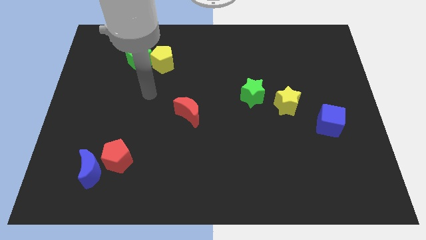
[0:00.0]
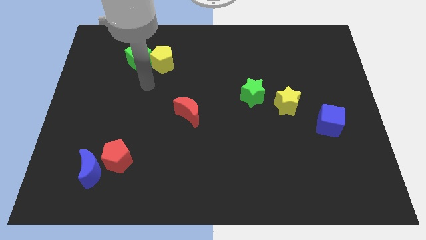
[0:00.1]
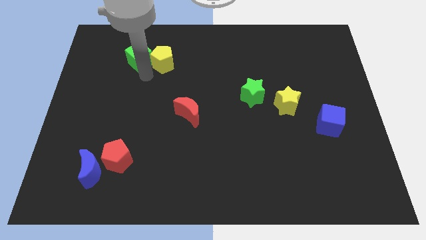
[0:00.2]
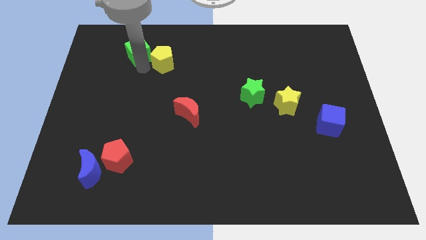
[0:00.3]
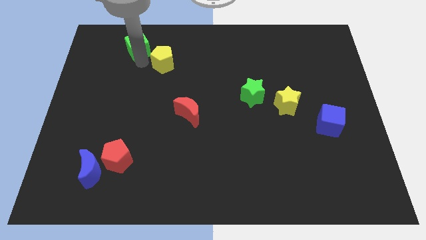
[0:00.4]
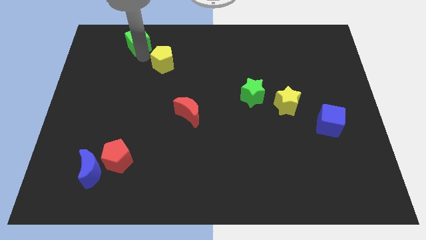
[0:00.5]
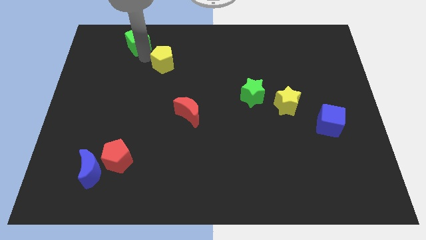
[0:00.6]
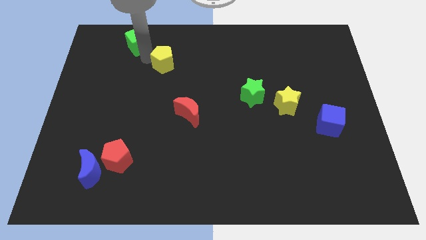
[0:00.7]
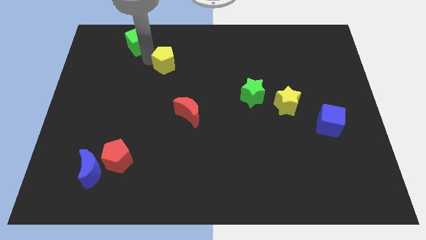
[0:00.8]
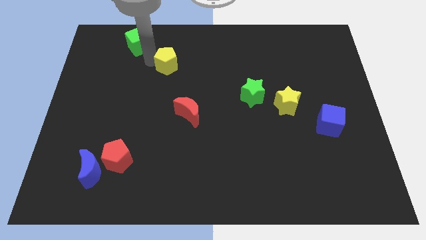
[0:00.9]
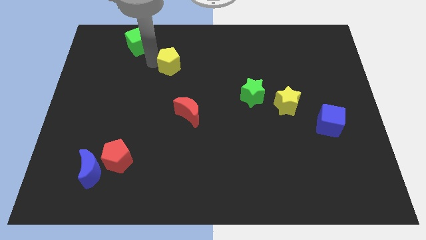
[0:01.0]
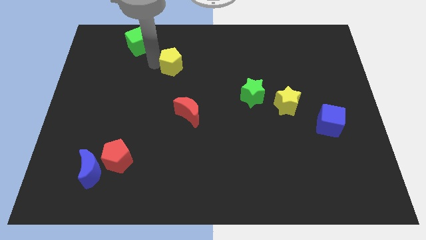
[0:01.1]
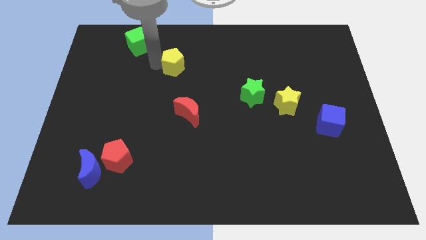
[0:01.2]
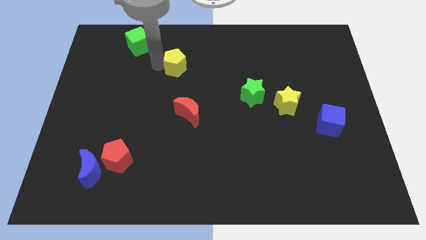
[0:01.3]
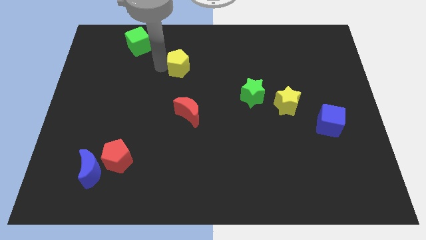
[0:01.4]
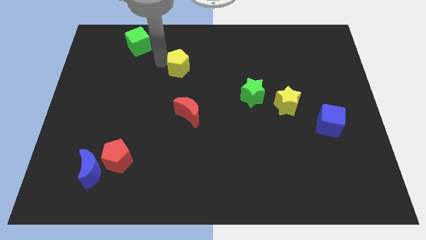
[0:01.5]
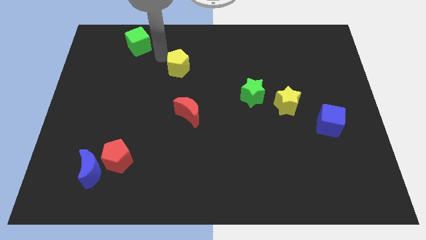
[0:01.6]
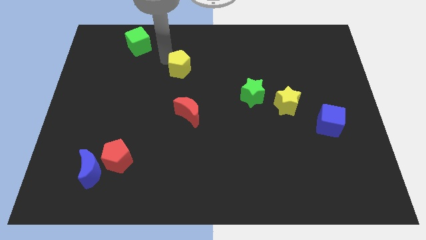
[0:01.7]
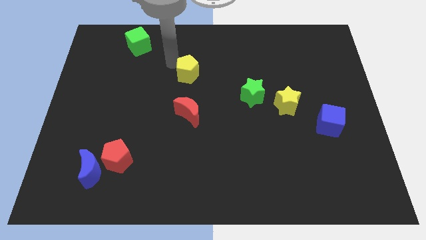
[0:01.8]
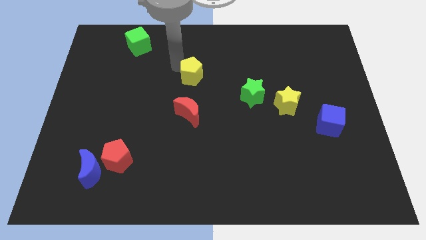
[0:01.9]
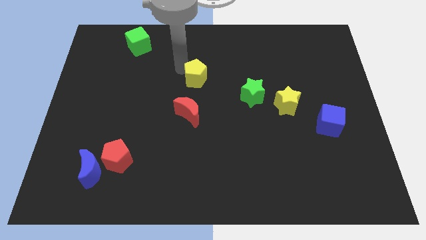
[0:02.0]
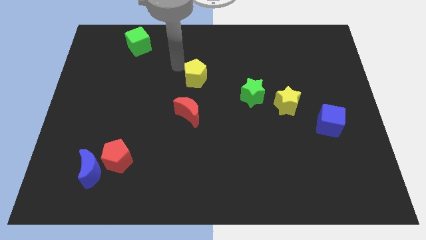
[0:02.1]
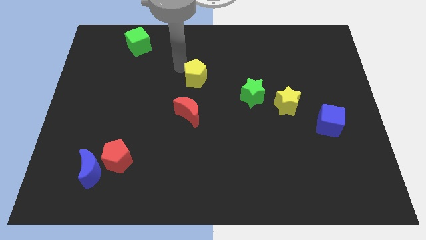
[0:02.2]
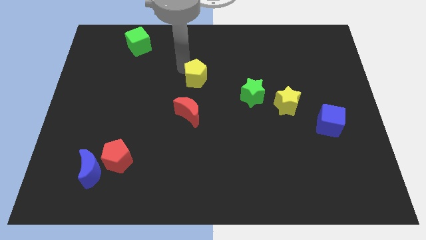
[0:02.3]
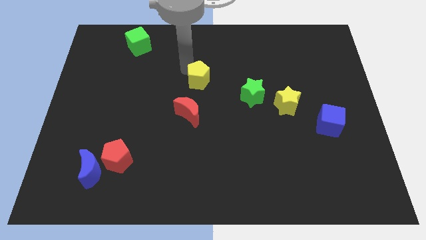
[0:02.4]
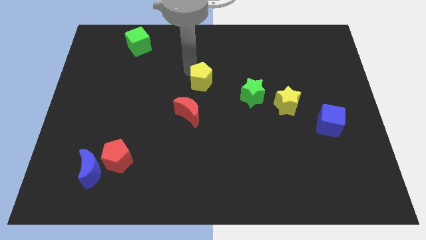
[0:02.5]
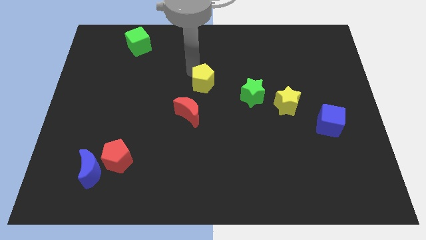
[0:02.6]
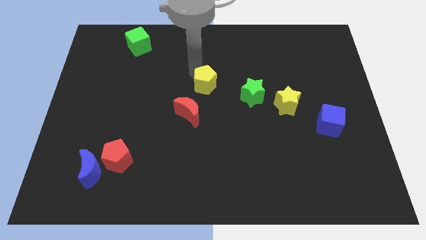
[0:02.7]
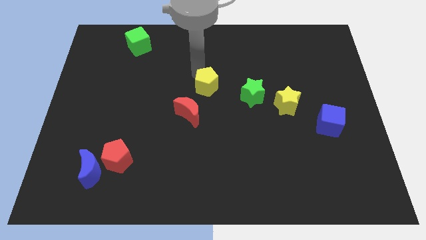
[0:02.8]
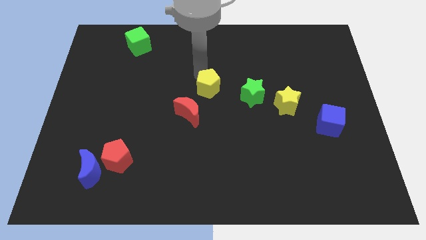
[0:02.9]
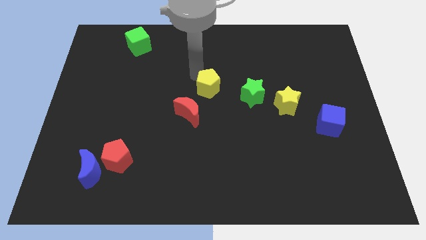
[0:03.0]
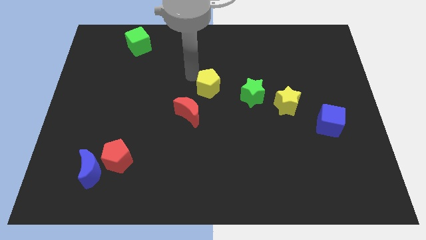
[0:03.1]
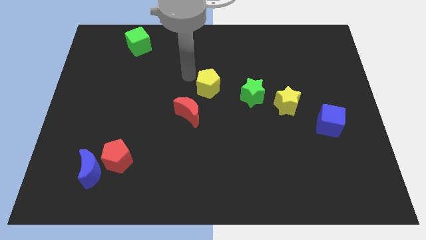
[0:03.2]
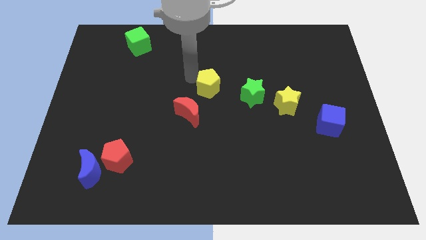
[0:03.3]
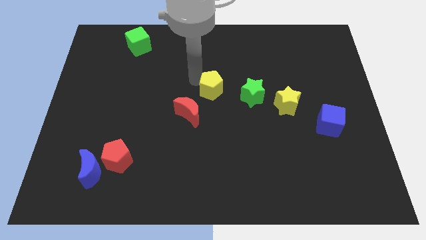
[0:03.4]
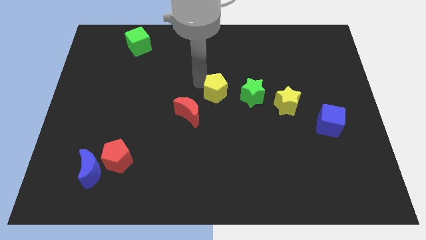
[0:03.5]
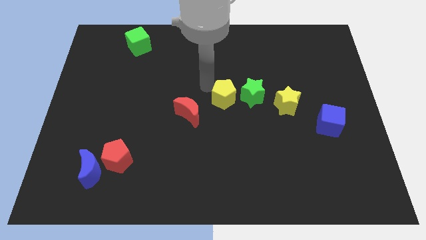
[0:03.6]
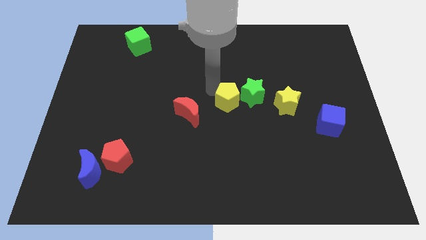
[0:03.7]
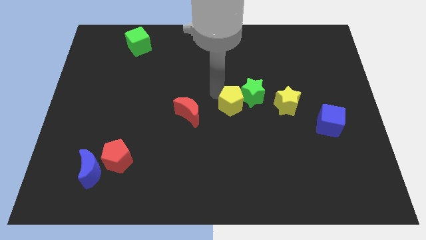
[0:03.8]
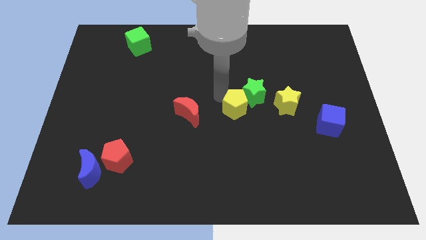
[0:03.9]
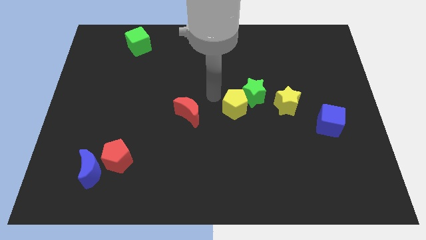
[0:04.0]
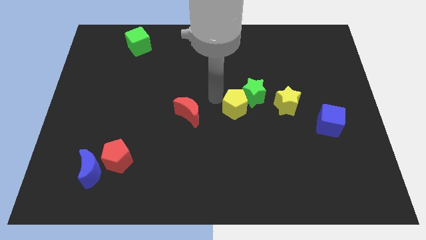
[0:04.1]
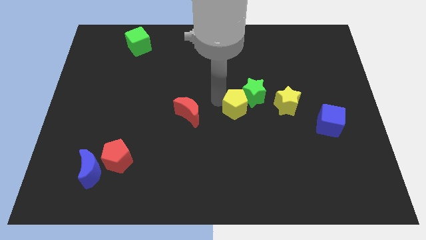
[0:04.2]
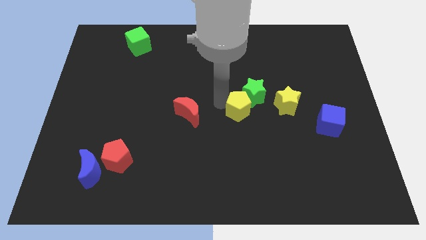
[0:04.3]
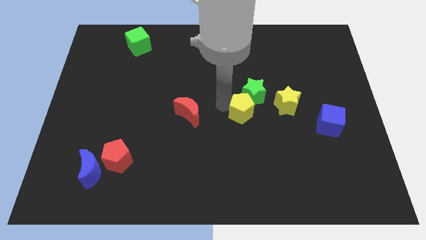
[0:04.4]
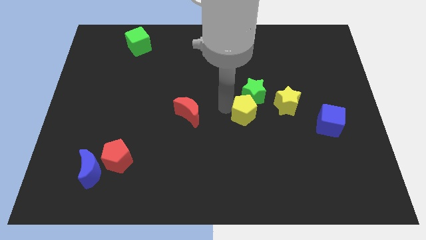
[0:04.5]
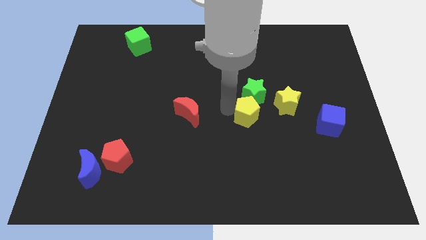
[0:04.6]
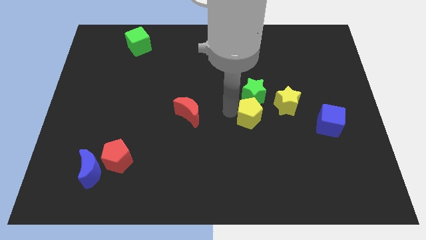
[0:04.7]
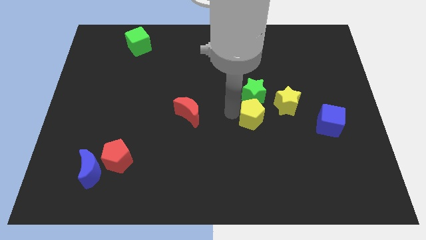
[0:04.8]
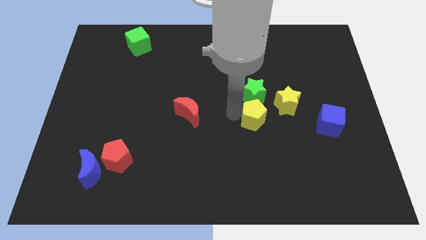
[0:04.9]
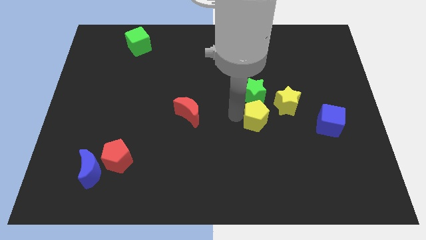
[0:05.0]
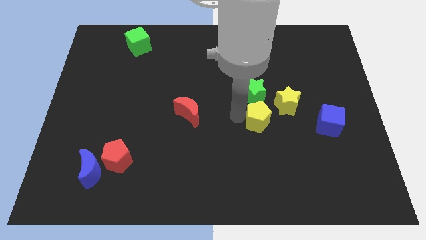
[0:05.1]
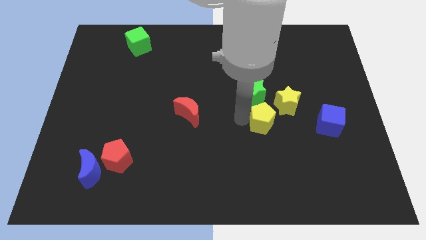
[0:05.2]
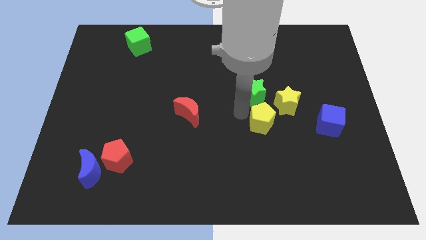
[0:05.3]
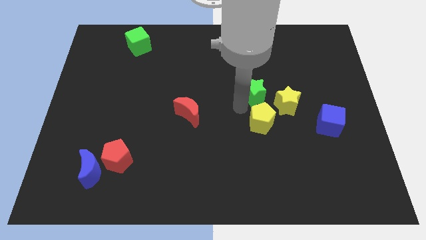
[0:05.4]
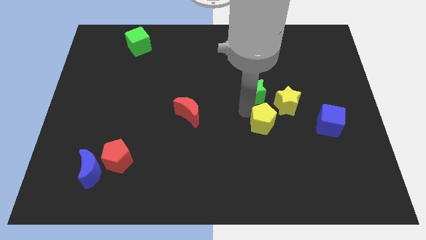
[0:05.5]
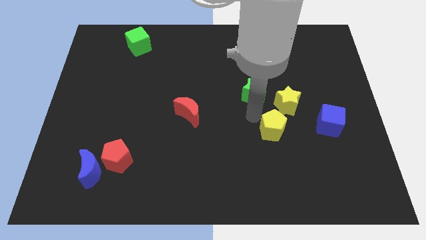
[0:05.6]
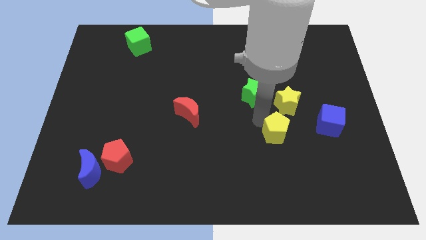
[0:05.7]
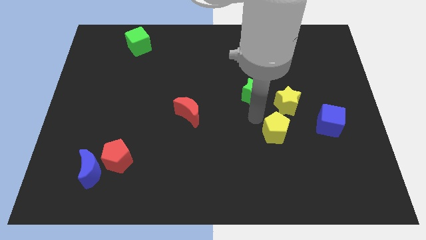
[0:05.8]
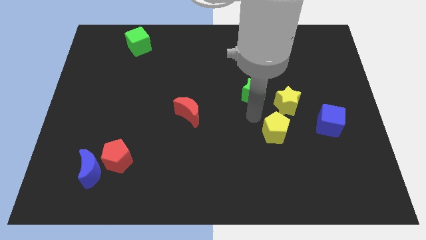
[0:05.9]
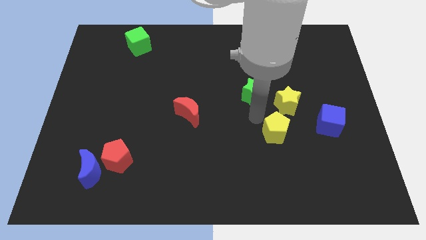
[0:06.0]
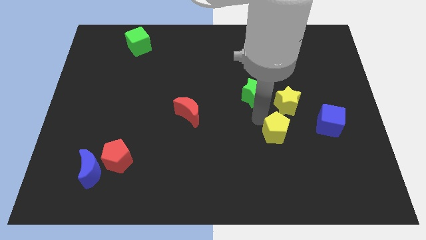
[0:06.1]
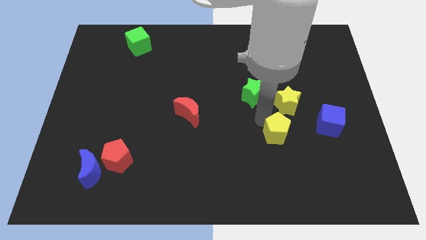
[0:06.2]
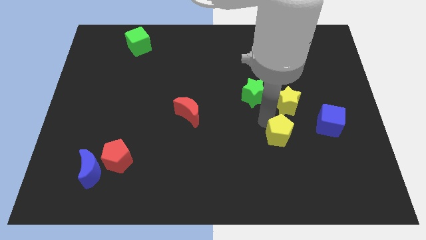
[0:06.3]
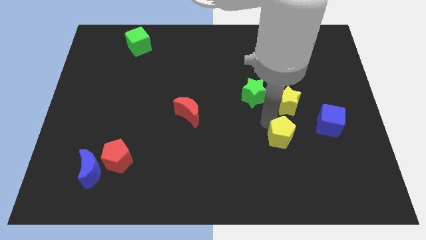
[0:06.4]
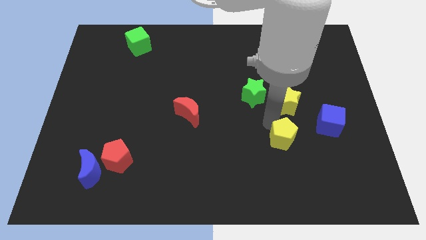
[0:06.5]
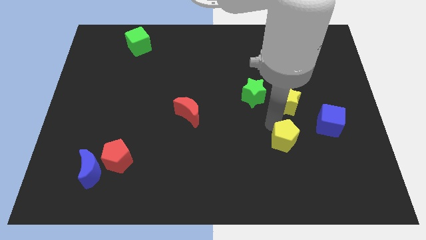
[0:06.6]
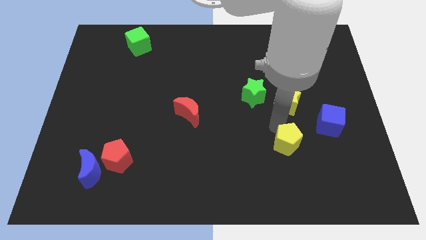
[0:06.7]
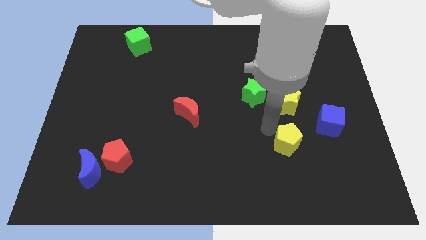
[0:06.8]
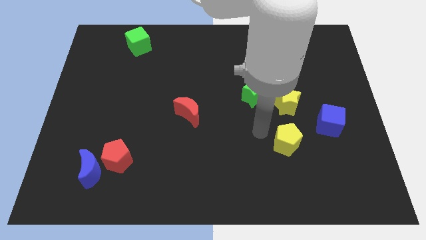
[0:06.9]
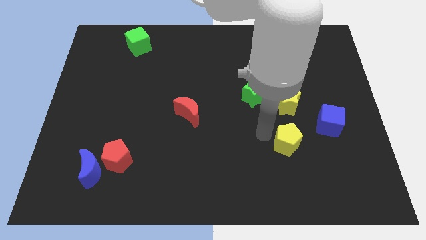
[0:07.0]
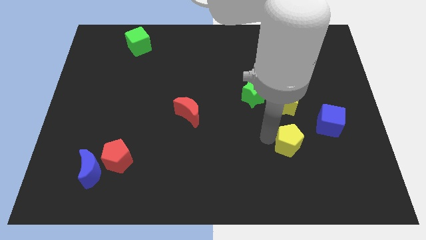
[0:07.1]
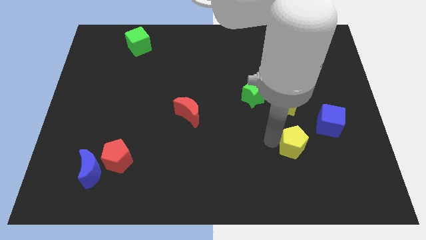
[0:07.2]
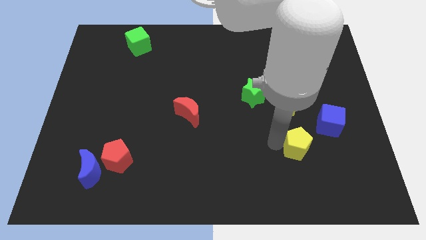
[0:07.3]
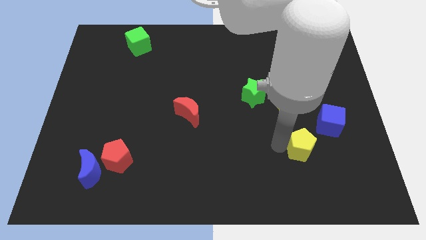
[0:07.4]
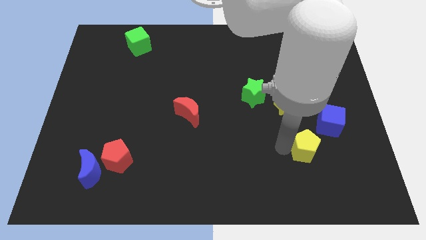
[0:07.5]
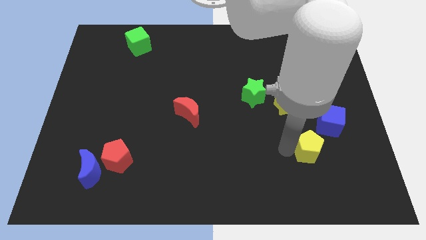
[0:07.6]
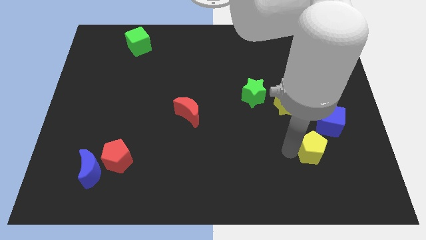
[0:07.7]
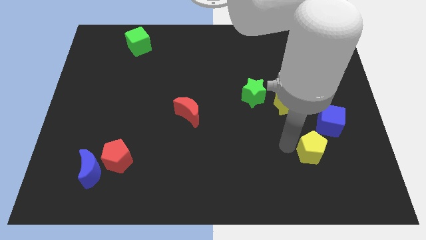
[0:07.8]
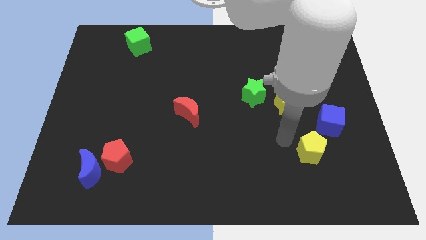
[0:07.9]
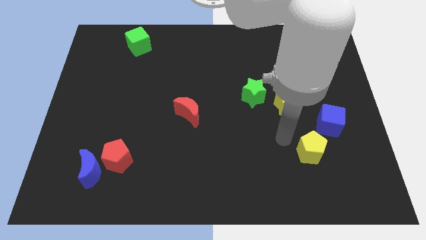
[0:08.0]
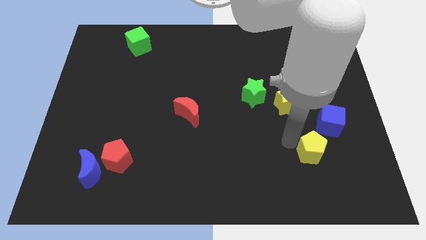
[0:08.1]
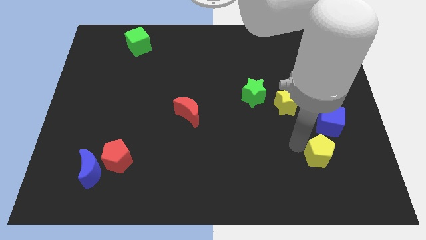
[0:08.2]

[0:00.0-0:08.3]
push the yellow pentagon to the bottom of the blue cube
